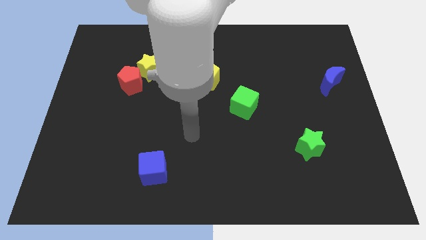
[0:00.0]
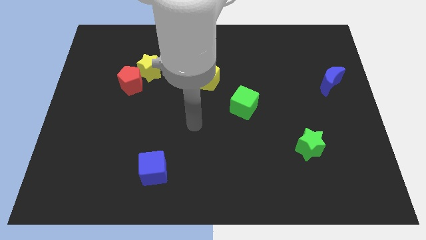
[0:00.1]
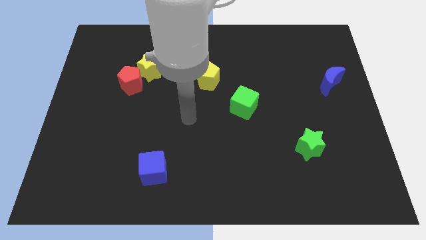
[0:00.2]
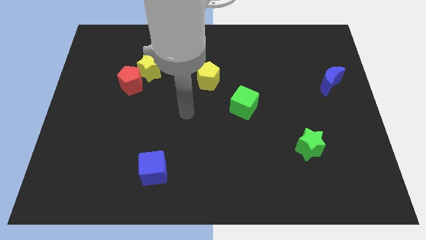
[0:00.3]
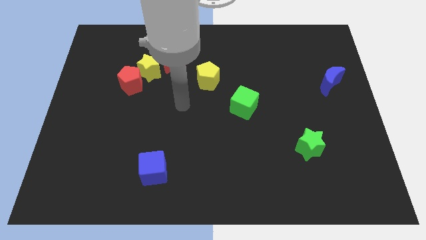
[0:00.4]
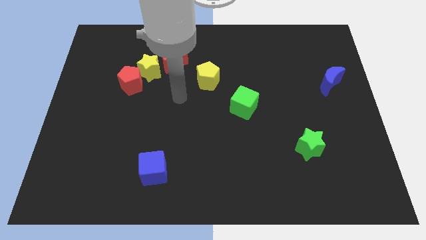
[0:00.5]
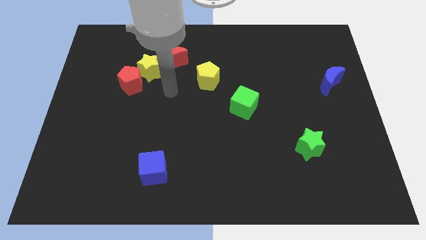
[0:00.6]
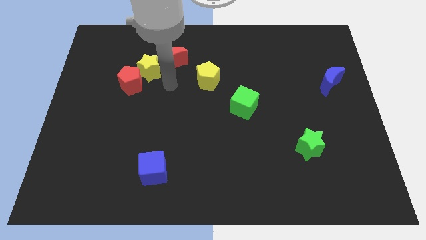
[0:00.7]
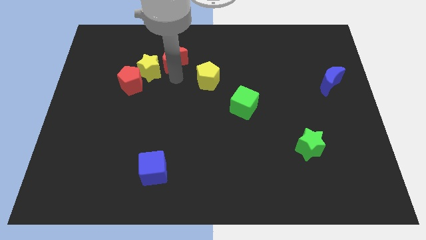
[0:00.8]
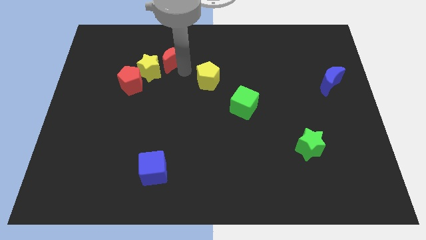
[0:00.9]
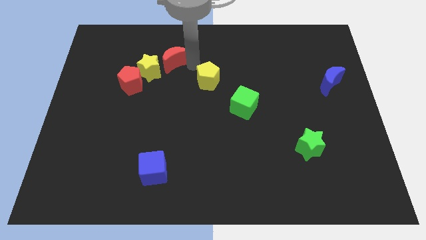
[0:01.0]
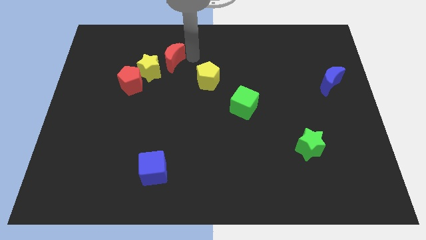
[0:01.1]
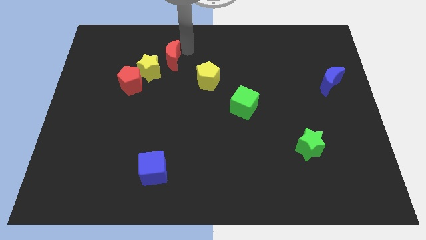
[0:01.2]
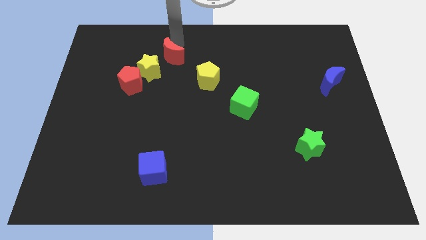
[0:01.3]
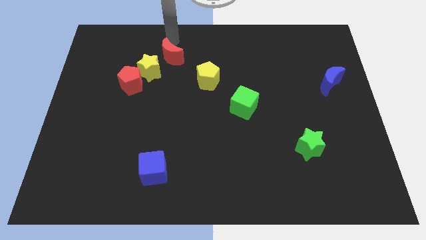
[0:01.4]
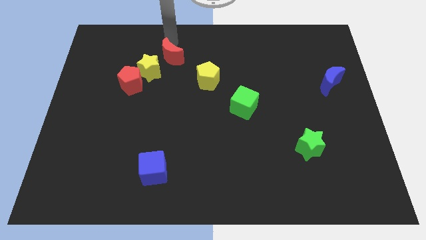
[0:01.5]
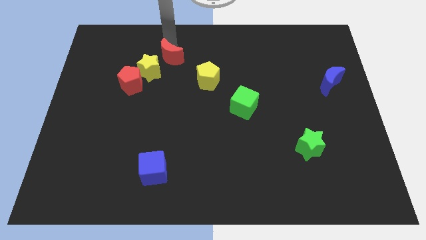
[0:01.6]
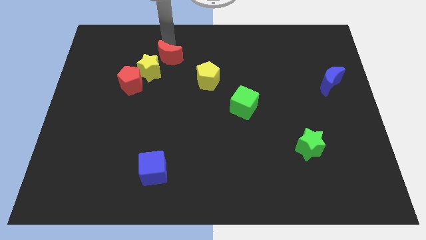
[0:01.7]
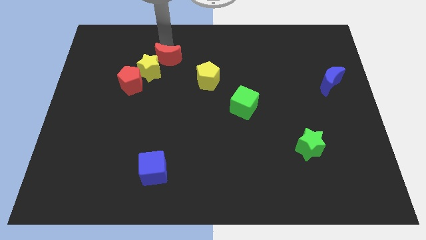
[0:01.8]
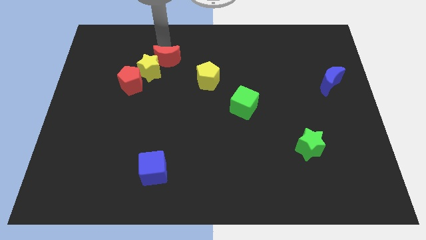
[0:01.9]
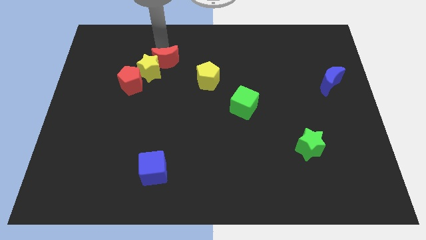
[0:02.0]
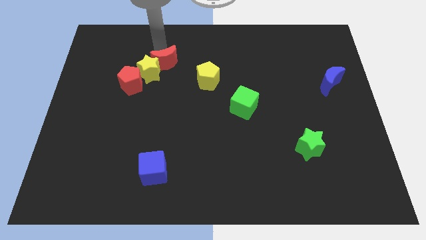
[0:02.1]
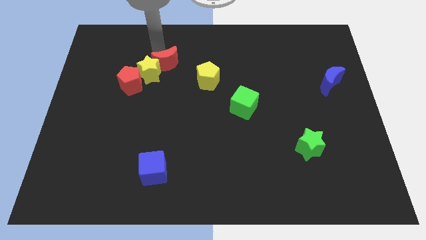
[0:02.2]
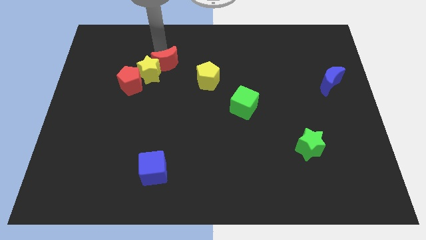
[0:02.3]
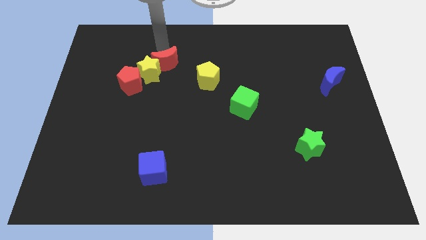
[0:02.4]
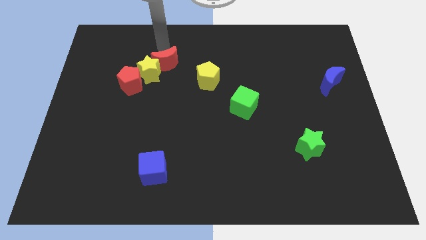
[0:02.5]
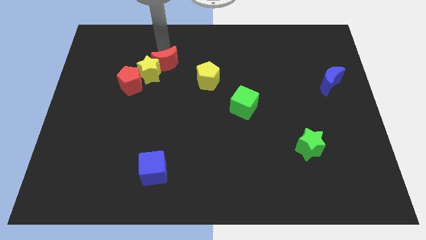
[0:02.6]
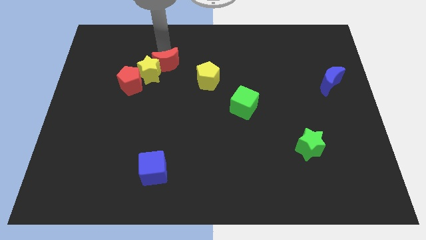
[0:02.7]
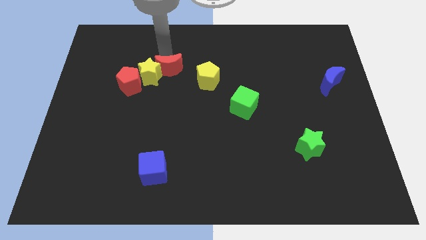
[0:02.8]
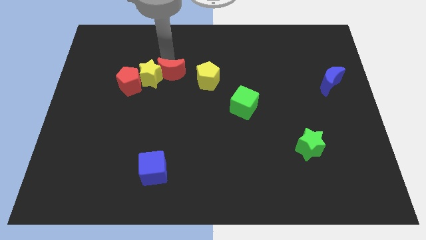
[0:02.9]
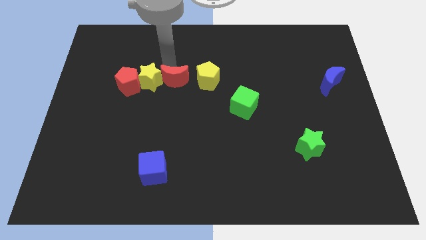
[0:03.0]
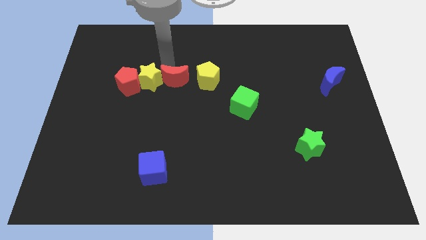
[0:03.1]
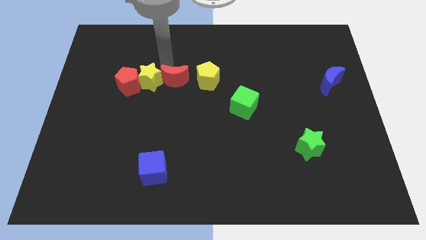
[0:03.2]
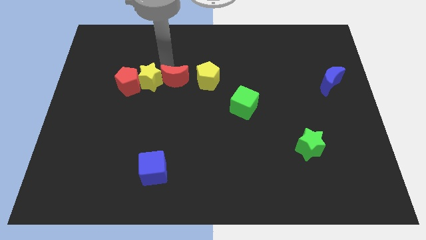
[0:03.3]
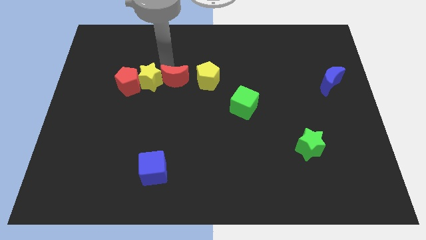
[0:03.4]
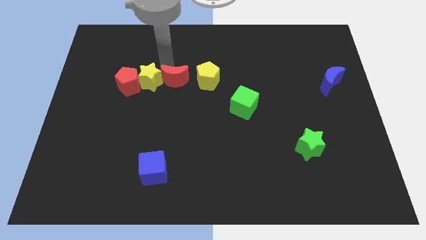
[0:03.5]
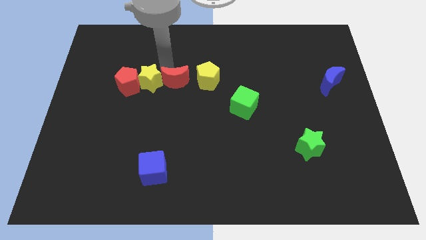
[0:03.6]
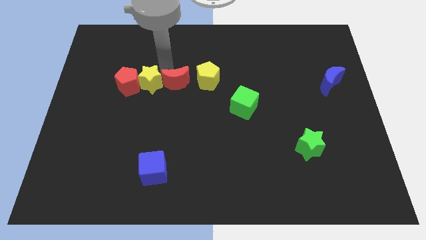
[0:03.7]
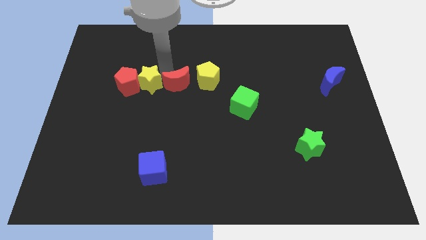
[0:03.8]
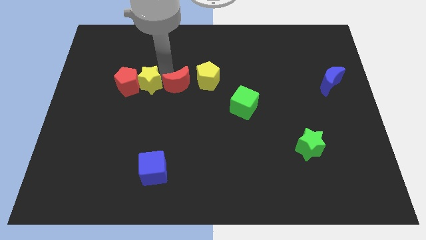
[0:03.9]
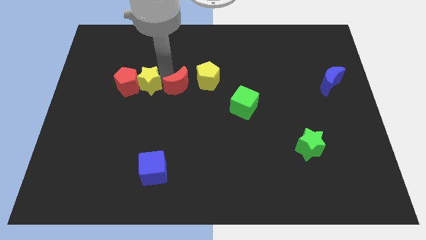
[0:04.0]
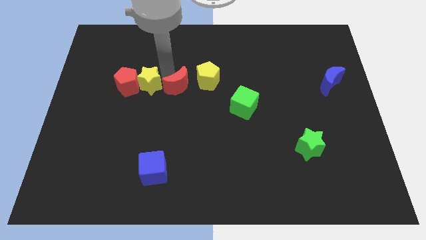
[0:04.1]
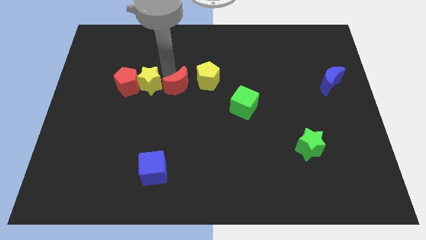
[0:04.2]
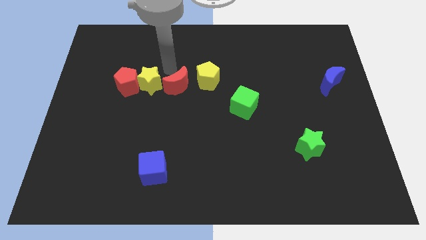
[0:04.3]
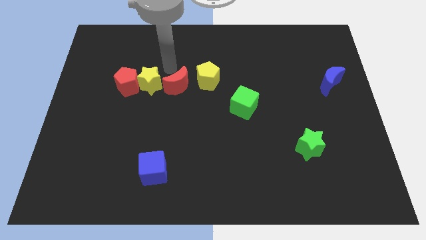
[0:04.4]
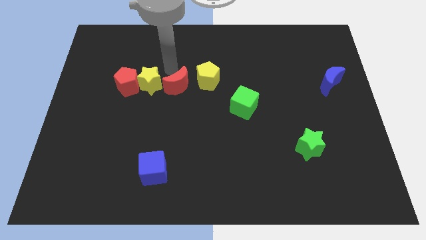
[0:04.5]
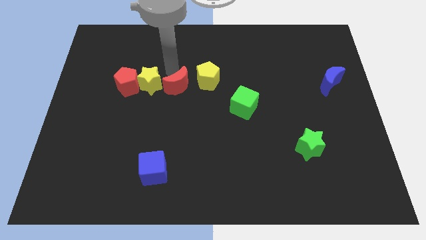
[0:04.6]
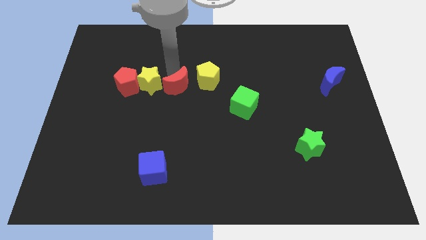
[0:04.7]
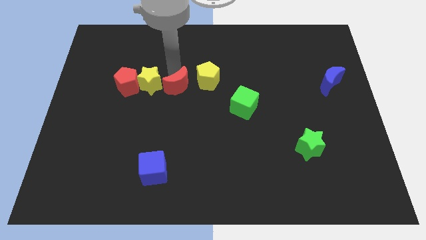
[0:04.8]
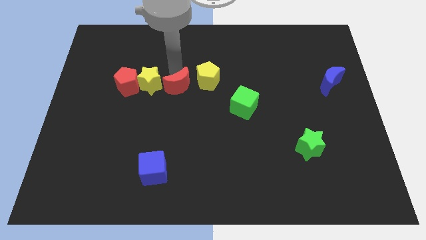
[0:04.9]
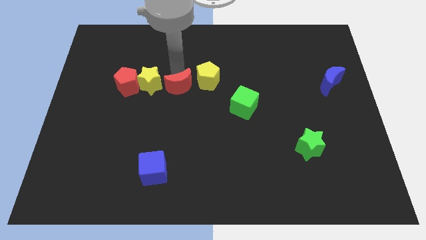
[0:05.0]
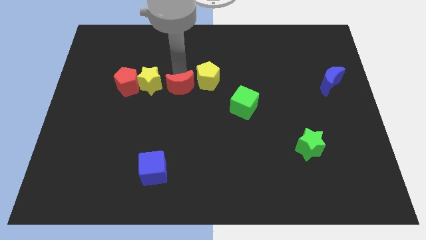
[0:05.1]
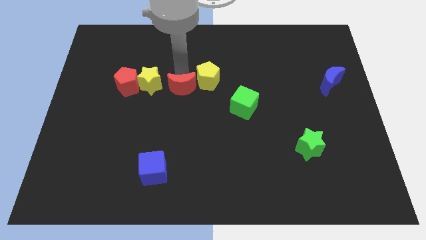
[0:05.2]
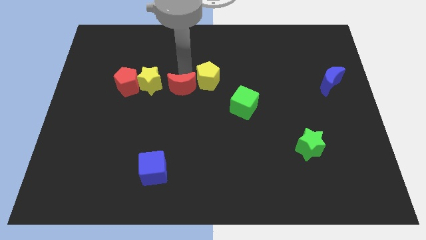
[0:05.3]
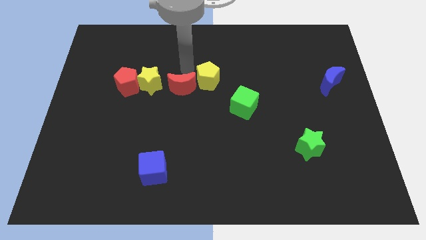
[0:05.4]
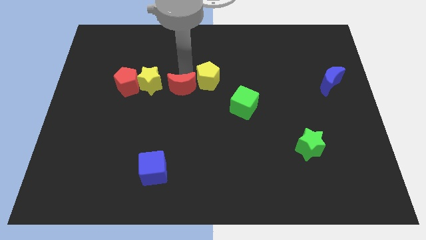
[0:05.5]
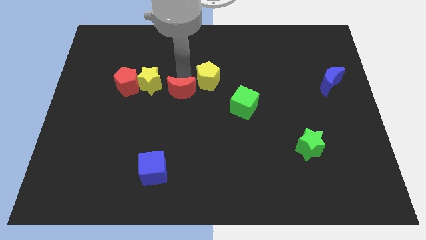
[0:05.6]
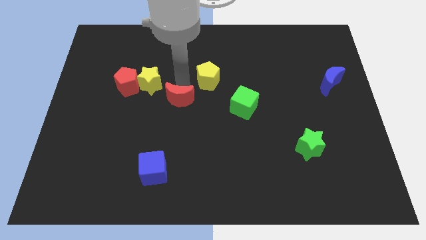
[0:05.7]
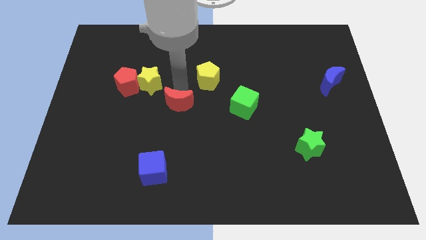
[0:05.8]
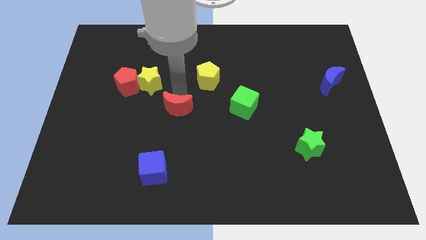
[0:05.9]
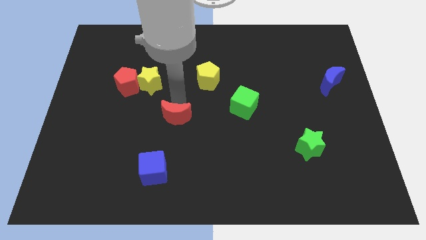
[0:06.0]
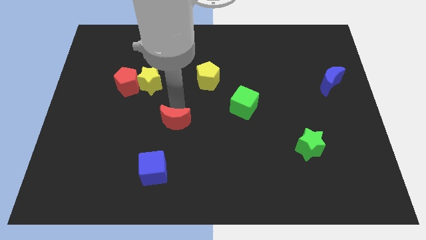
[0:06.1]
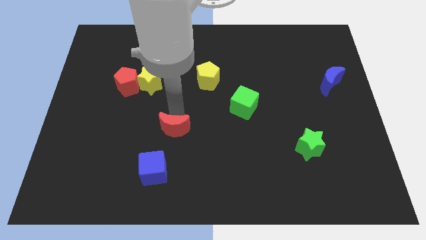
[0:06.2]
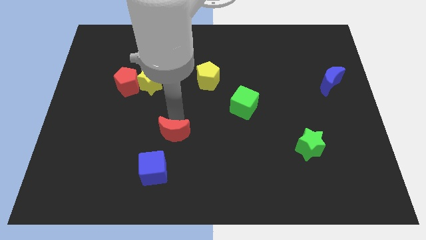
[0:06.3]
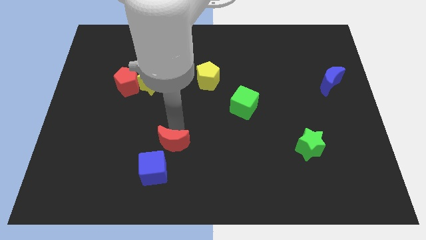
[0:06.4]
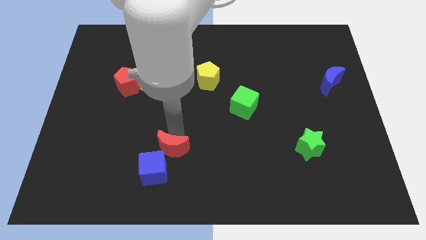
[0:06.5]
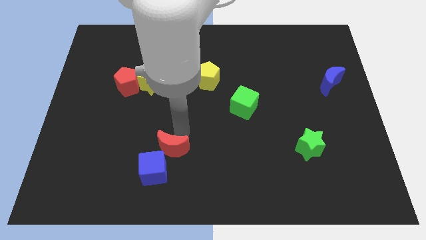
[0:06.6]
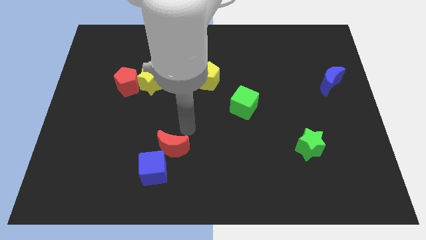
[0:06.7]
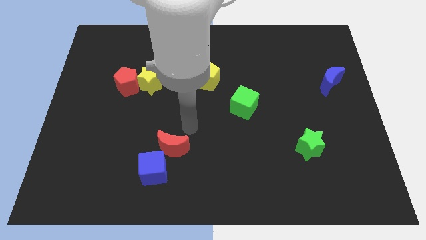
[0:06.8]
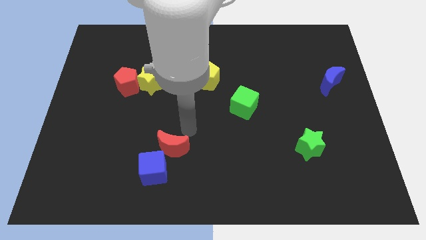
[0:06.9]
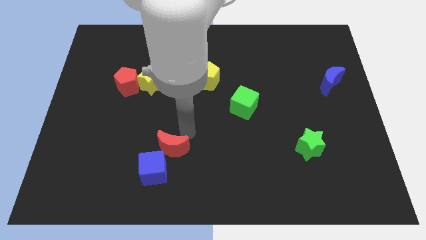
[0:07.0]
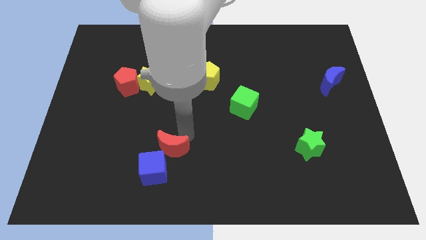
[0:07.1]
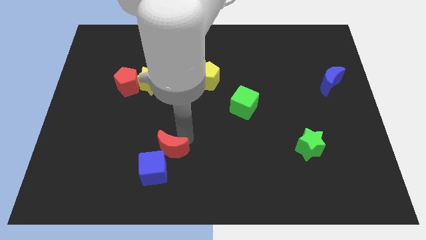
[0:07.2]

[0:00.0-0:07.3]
slide the red moon towards the blue cube
